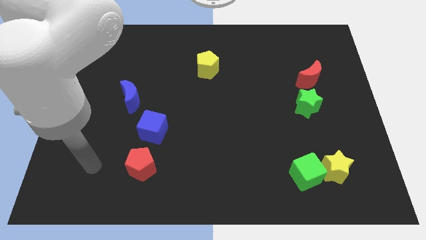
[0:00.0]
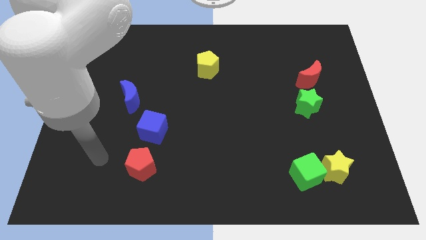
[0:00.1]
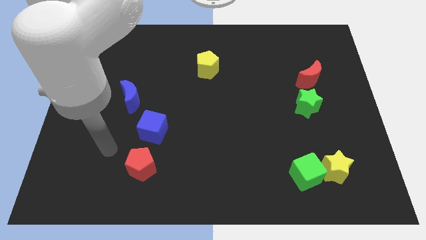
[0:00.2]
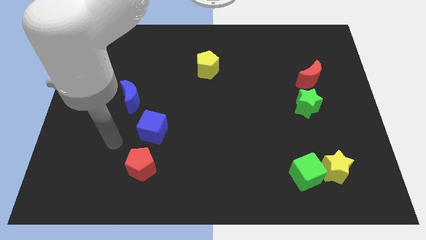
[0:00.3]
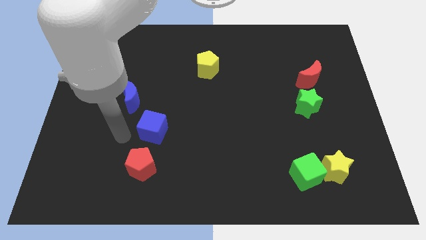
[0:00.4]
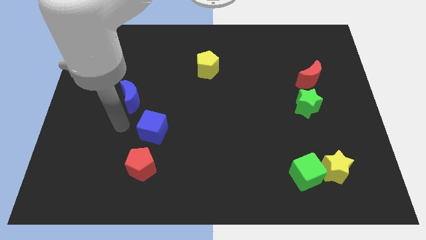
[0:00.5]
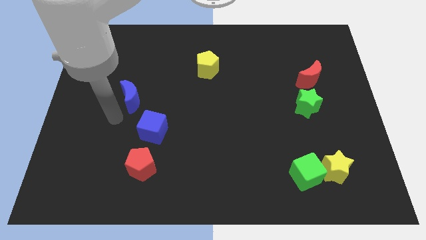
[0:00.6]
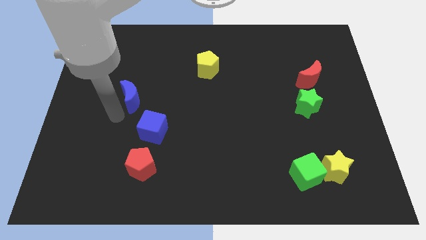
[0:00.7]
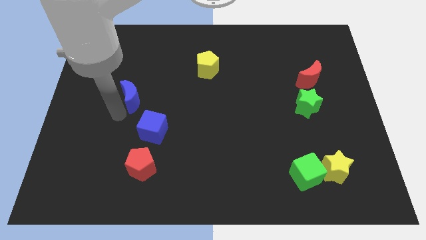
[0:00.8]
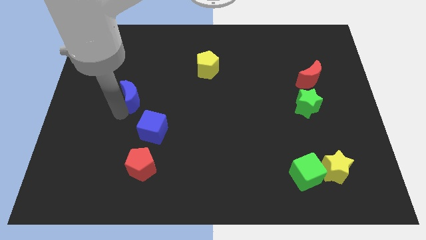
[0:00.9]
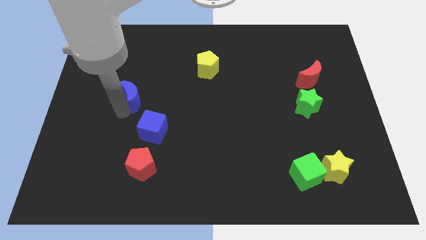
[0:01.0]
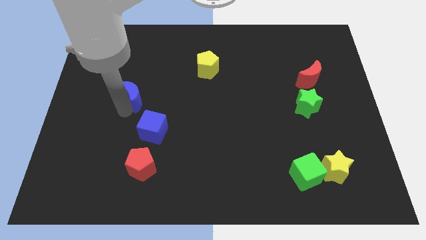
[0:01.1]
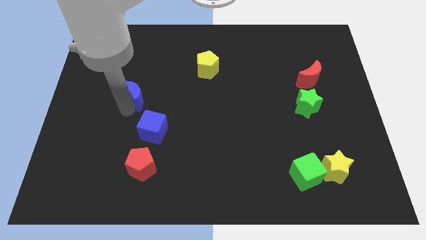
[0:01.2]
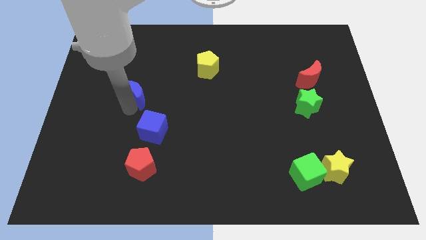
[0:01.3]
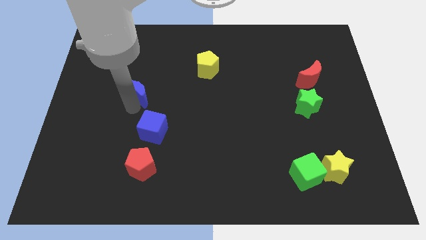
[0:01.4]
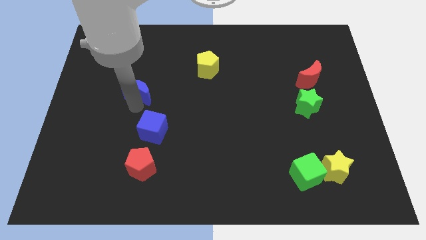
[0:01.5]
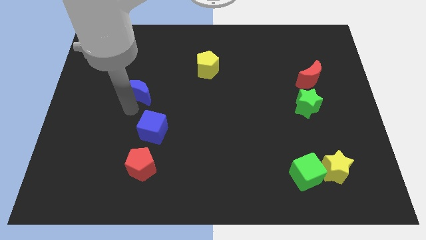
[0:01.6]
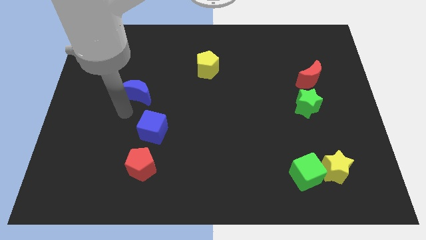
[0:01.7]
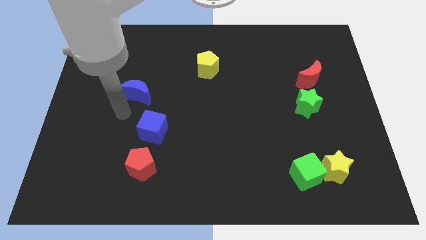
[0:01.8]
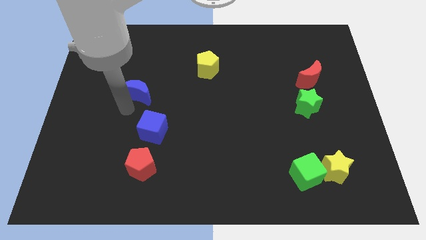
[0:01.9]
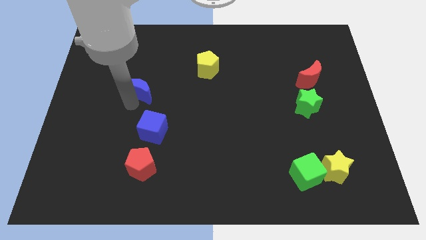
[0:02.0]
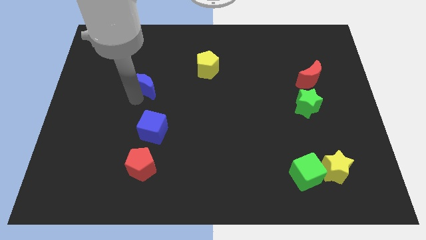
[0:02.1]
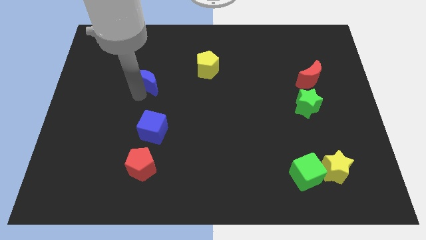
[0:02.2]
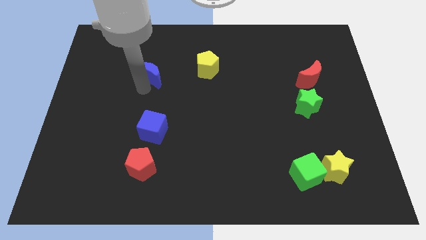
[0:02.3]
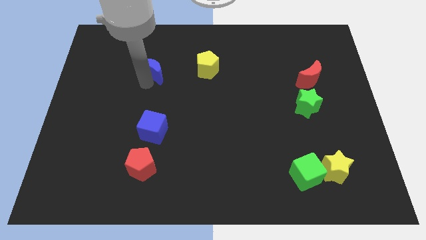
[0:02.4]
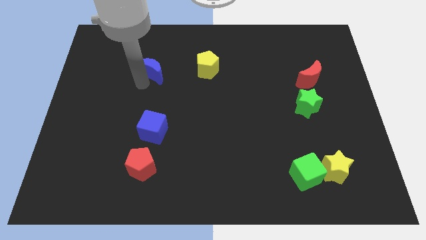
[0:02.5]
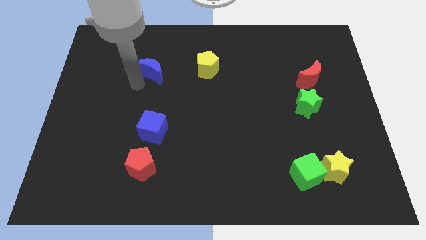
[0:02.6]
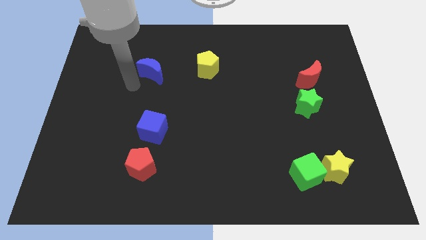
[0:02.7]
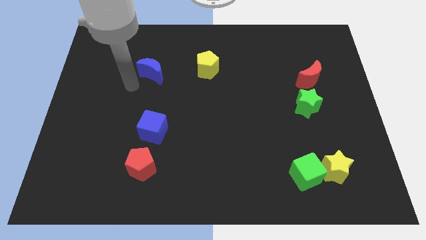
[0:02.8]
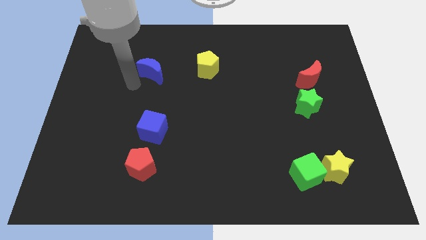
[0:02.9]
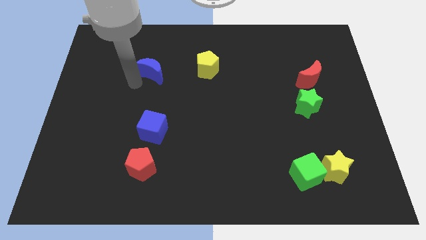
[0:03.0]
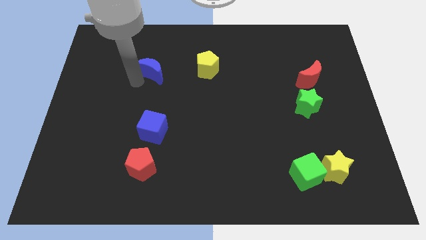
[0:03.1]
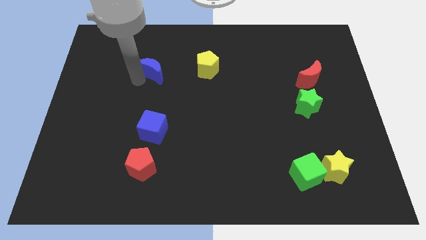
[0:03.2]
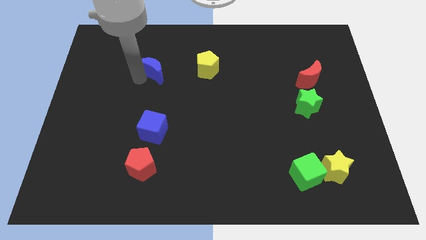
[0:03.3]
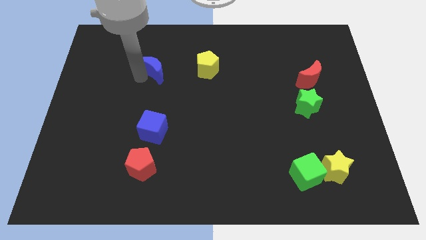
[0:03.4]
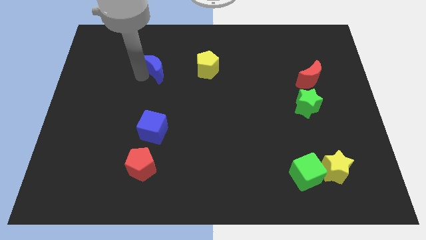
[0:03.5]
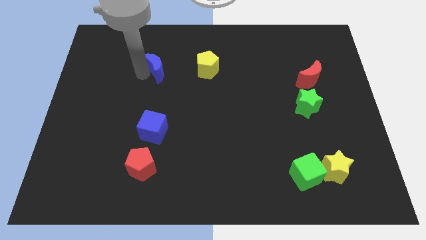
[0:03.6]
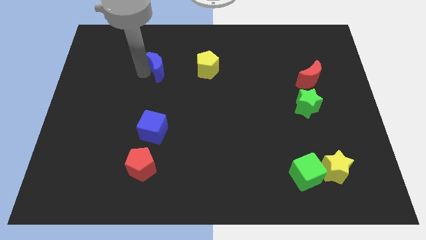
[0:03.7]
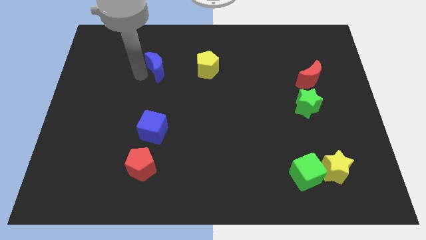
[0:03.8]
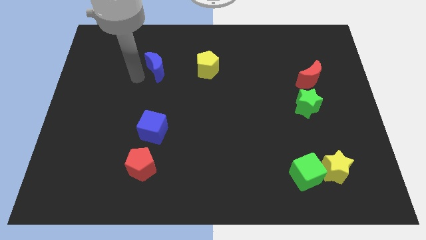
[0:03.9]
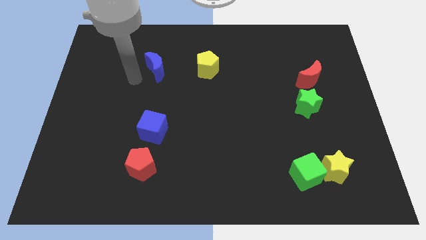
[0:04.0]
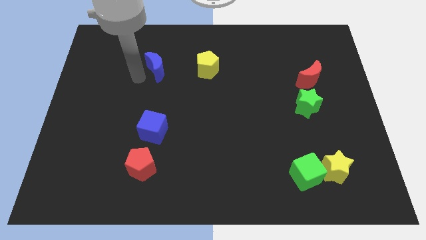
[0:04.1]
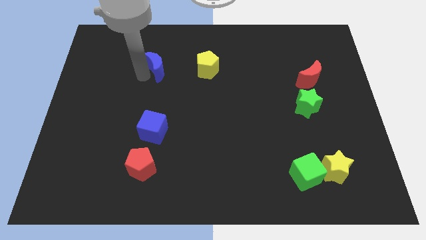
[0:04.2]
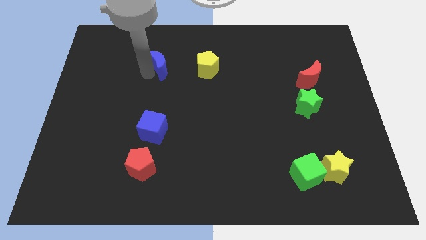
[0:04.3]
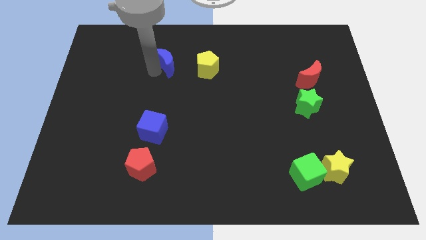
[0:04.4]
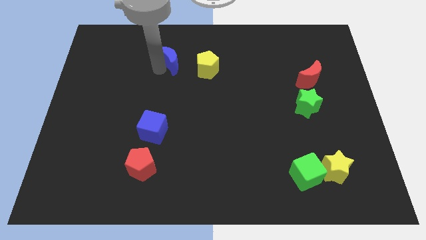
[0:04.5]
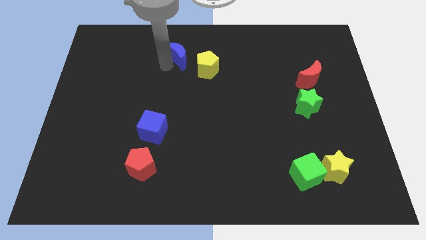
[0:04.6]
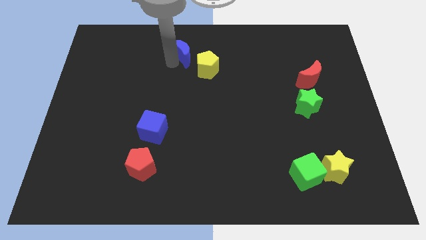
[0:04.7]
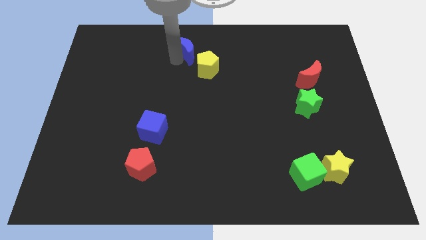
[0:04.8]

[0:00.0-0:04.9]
put the blue moon to the towards your base

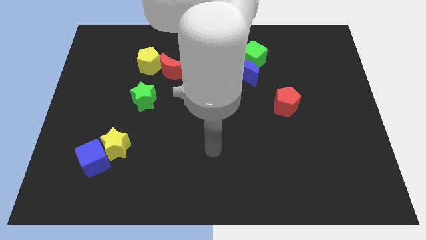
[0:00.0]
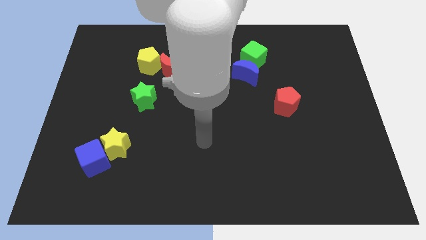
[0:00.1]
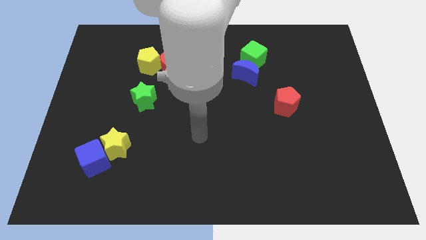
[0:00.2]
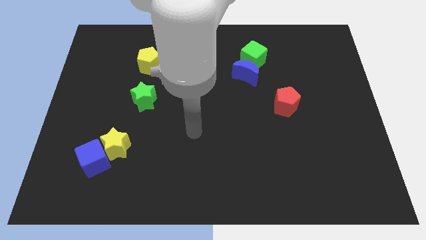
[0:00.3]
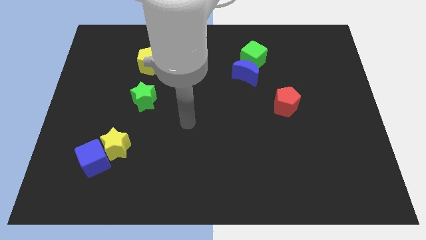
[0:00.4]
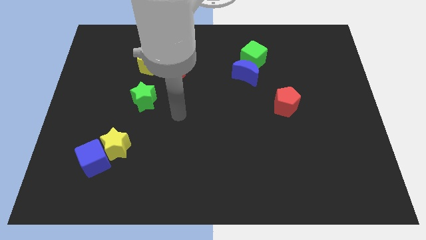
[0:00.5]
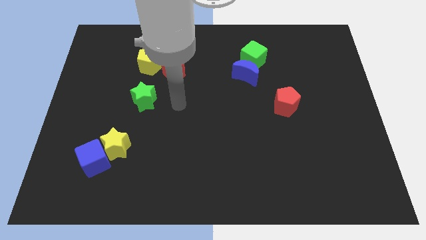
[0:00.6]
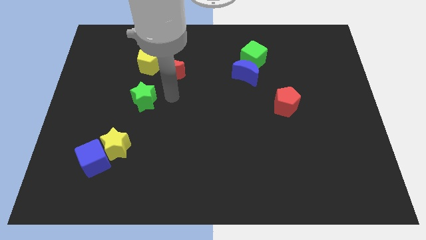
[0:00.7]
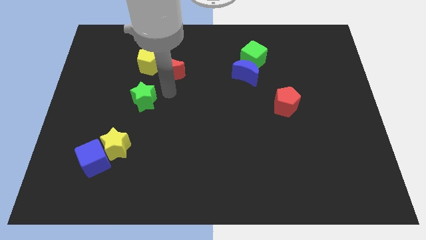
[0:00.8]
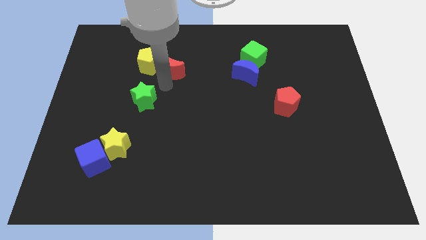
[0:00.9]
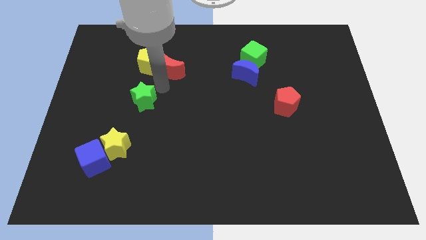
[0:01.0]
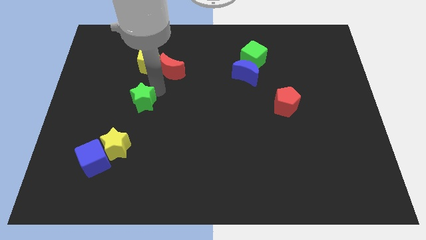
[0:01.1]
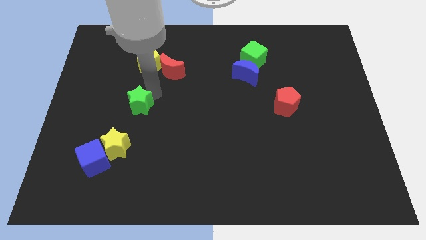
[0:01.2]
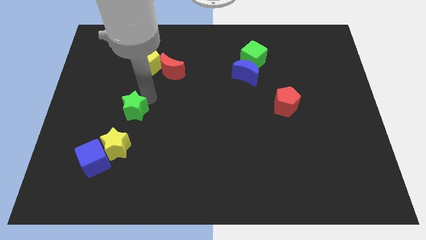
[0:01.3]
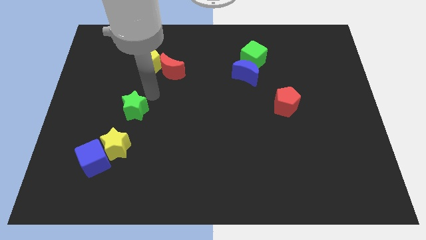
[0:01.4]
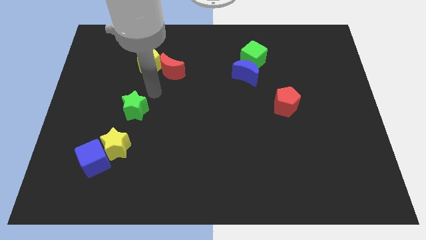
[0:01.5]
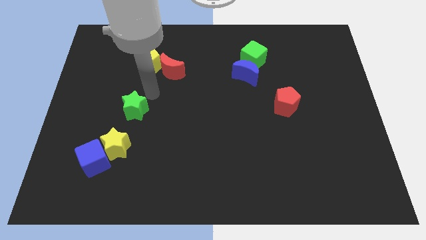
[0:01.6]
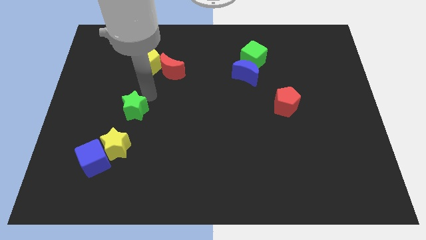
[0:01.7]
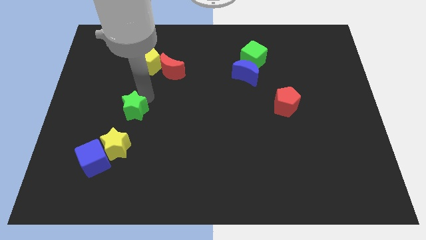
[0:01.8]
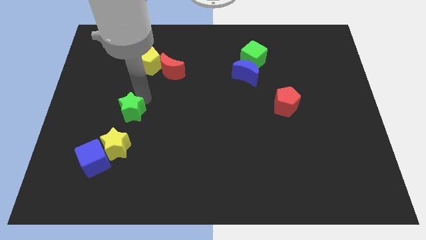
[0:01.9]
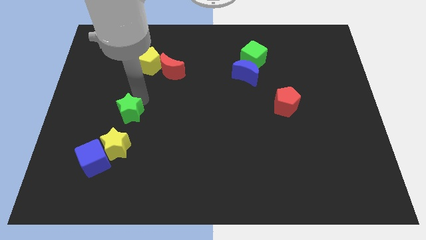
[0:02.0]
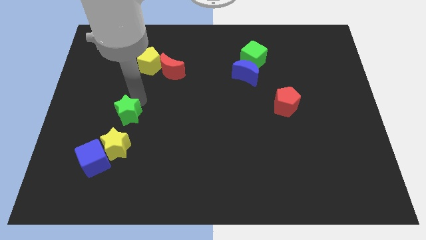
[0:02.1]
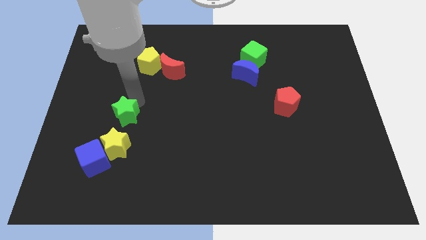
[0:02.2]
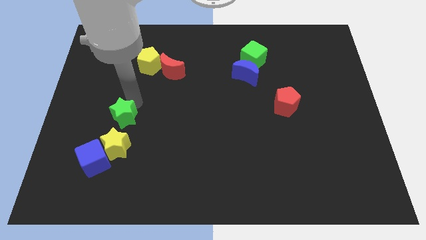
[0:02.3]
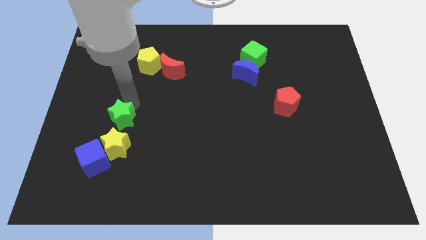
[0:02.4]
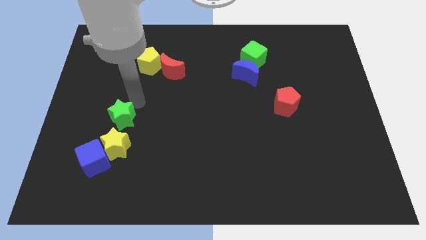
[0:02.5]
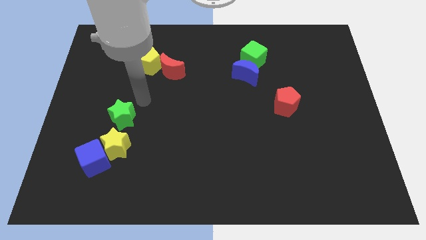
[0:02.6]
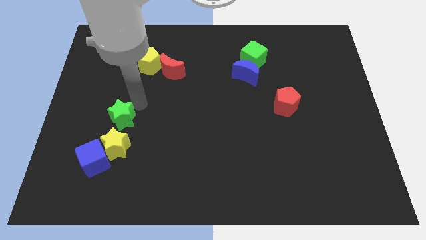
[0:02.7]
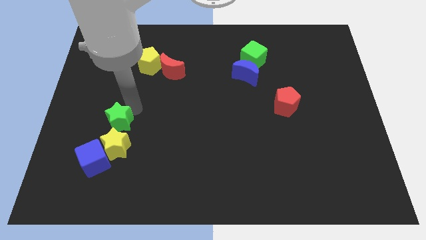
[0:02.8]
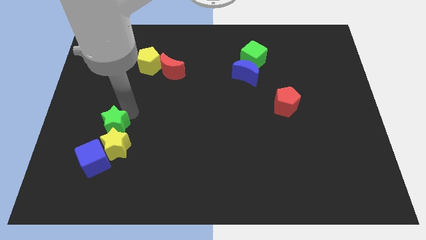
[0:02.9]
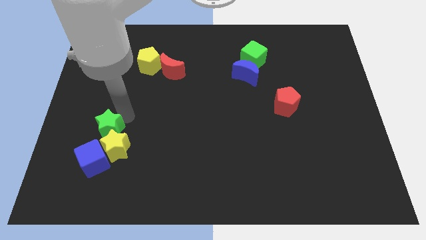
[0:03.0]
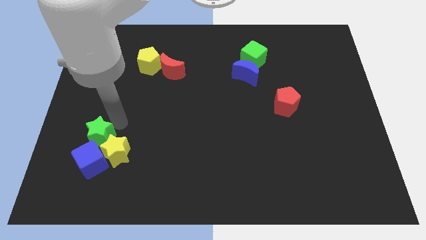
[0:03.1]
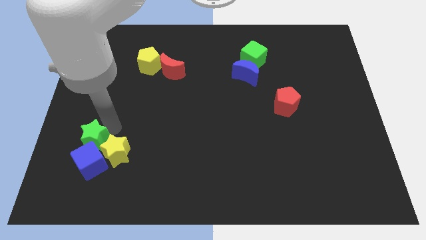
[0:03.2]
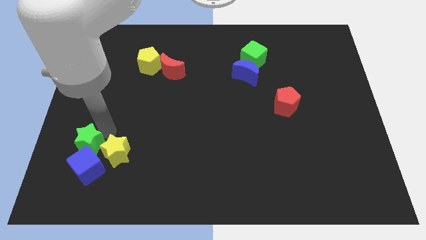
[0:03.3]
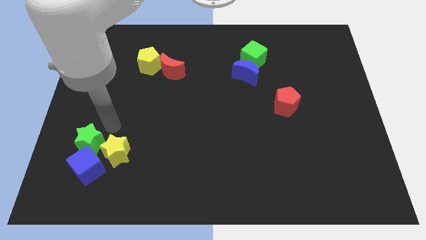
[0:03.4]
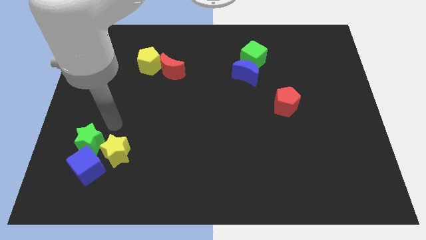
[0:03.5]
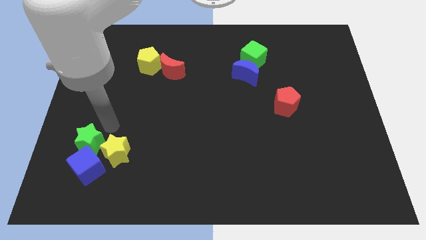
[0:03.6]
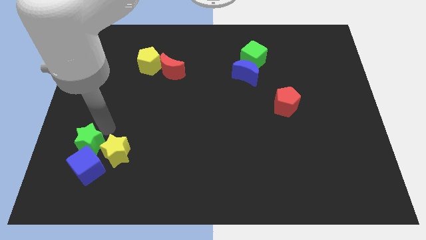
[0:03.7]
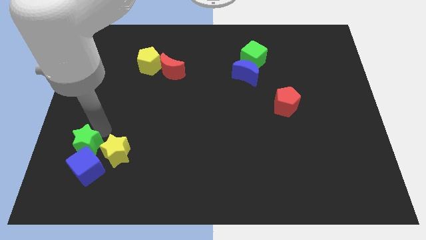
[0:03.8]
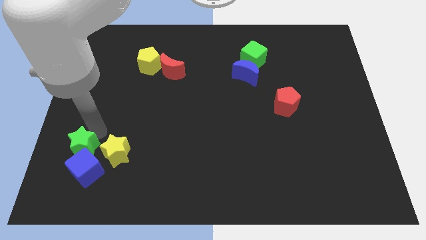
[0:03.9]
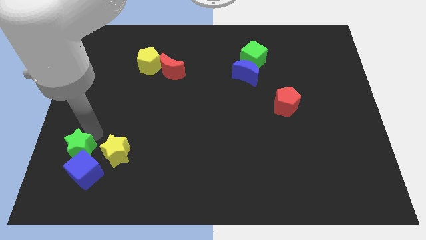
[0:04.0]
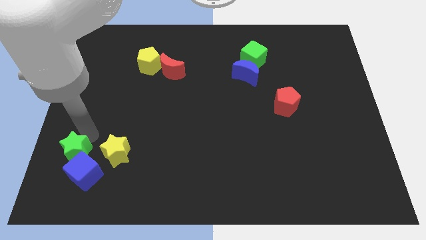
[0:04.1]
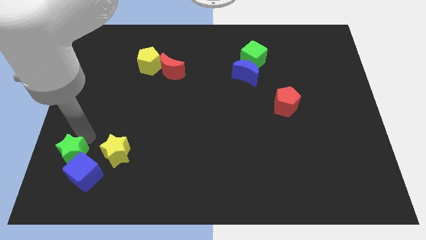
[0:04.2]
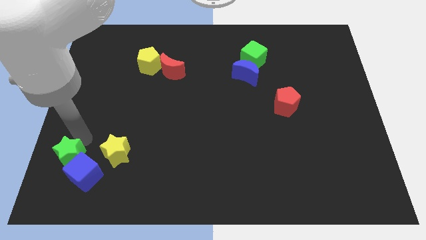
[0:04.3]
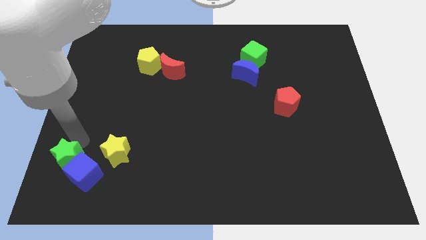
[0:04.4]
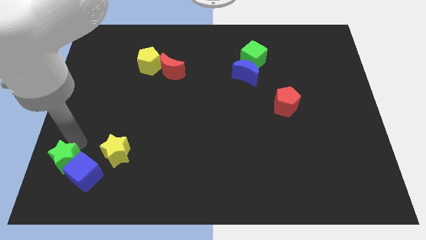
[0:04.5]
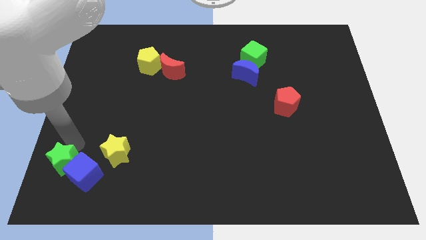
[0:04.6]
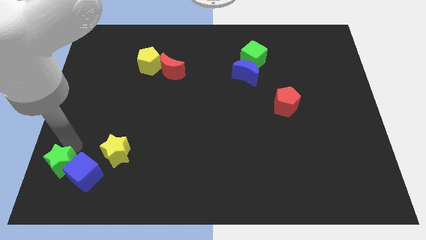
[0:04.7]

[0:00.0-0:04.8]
push the green star to the lower left corner
